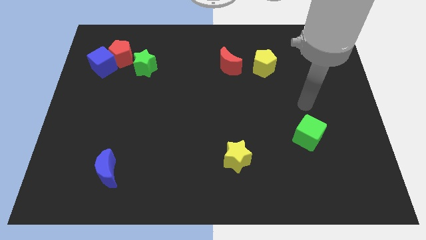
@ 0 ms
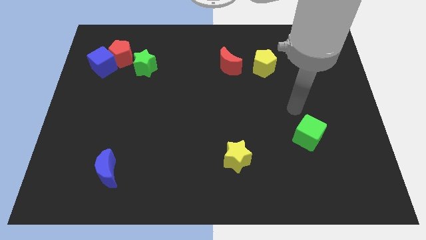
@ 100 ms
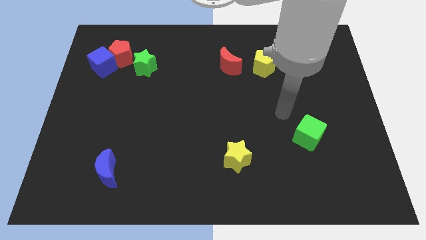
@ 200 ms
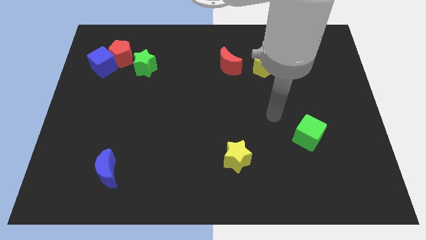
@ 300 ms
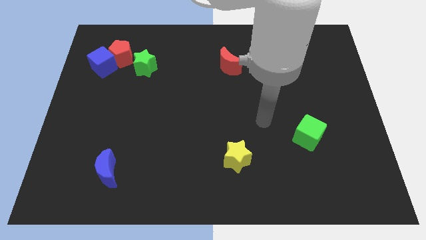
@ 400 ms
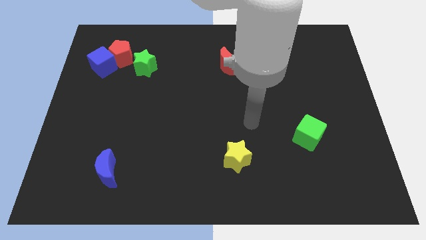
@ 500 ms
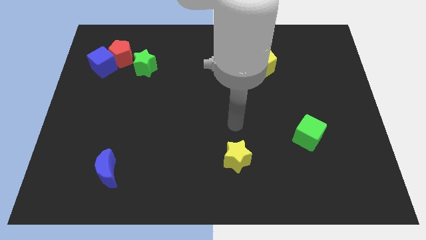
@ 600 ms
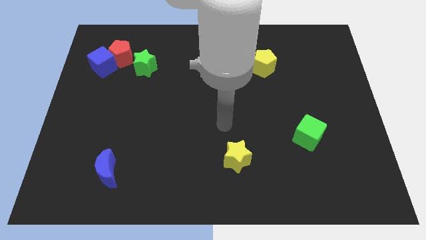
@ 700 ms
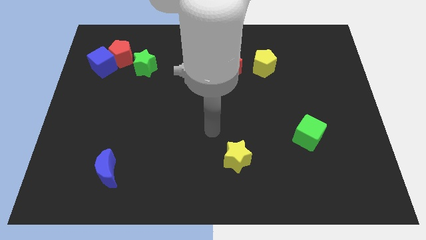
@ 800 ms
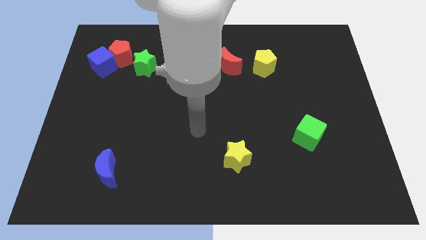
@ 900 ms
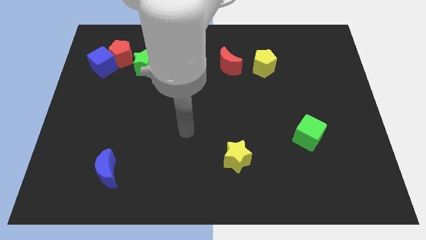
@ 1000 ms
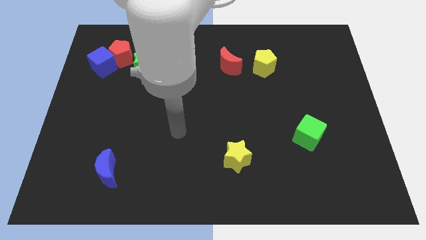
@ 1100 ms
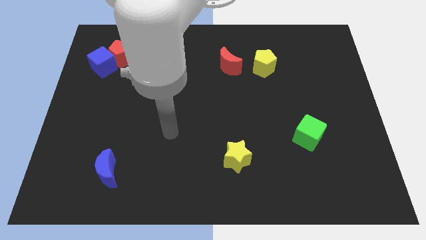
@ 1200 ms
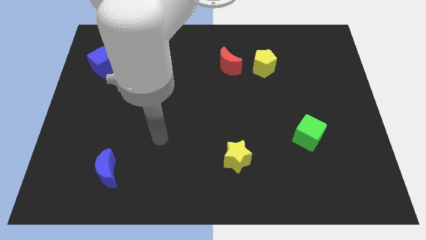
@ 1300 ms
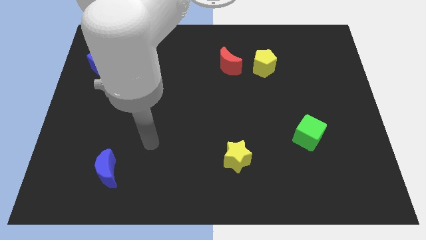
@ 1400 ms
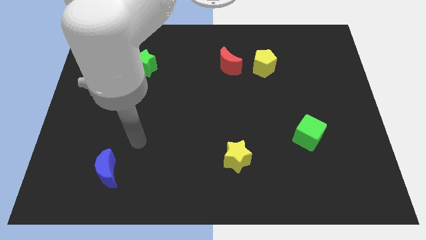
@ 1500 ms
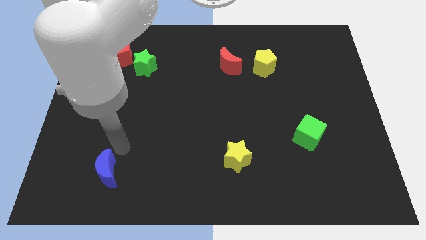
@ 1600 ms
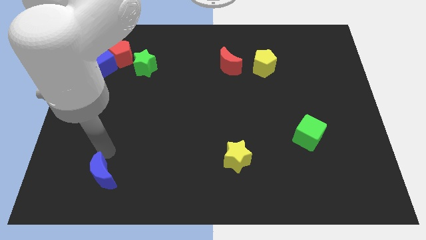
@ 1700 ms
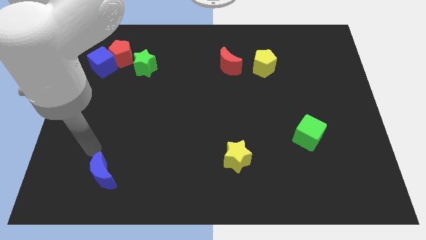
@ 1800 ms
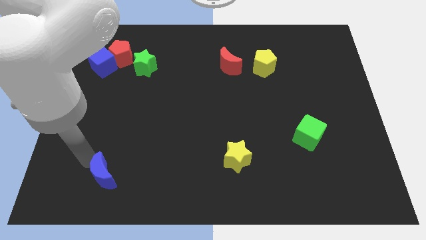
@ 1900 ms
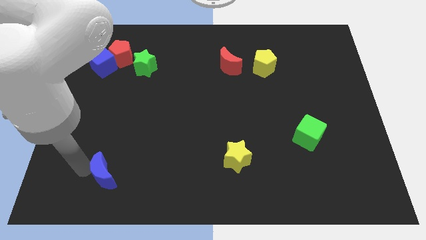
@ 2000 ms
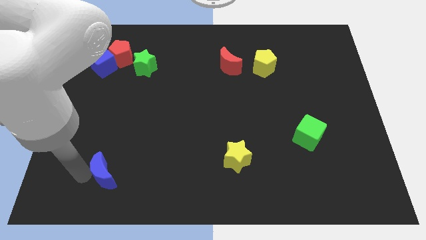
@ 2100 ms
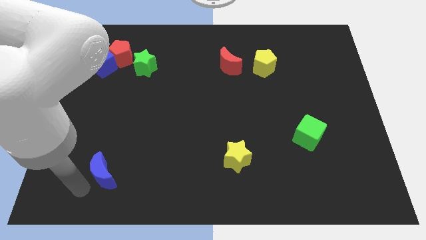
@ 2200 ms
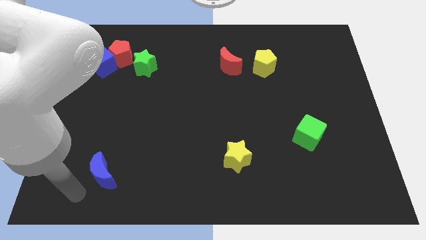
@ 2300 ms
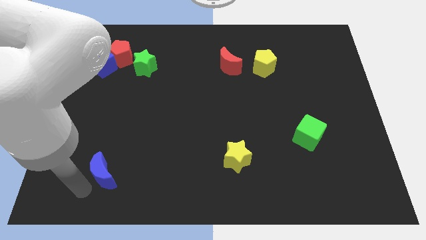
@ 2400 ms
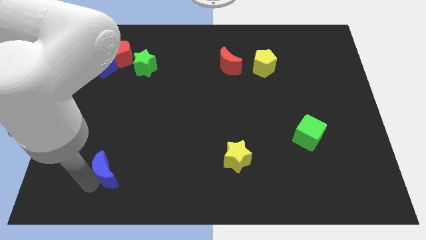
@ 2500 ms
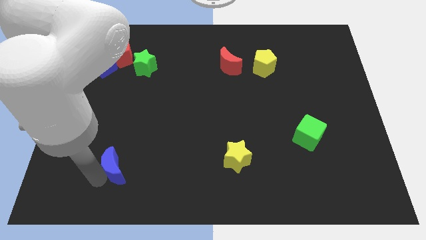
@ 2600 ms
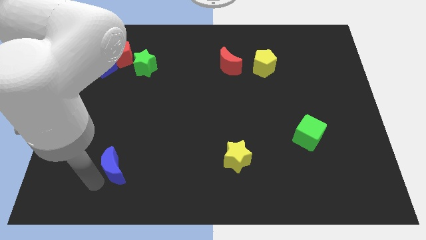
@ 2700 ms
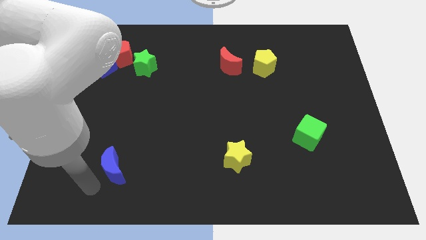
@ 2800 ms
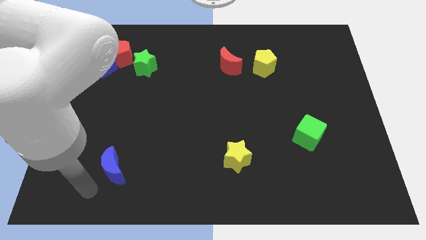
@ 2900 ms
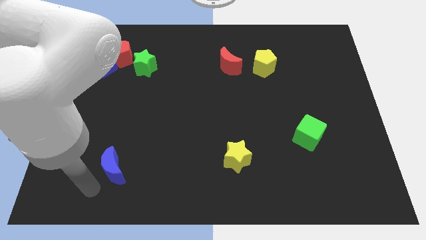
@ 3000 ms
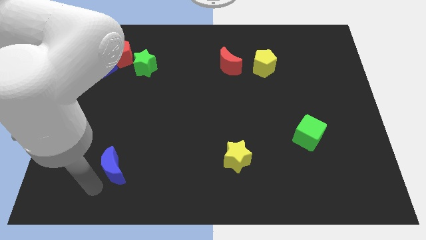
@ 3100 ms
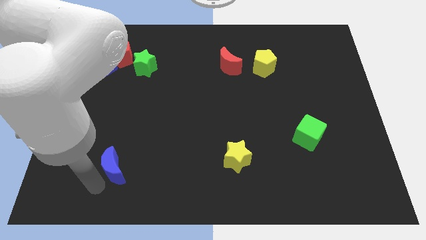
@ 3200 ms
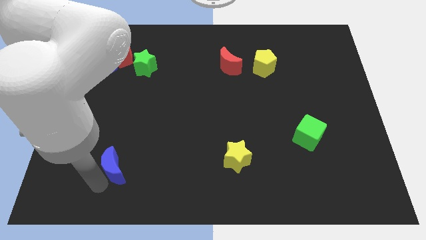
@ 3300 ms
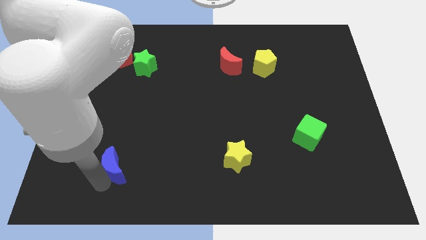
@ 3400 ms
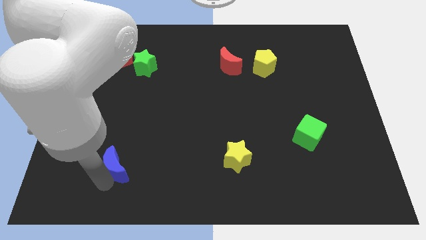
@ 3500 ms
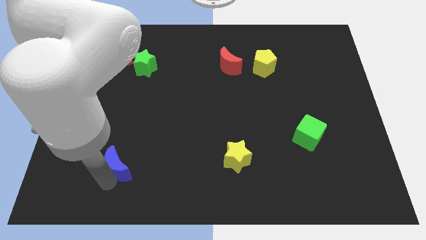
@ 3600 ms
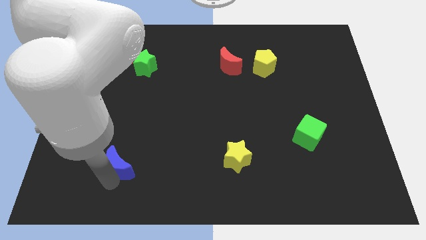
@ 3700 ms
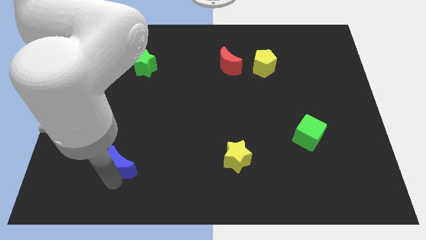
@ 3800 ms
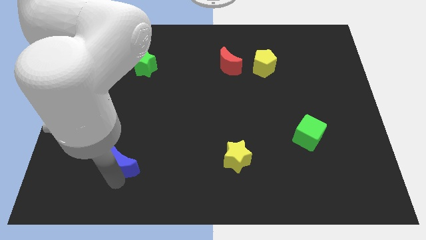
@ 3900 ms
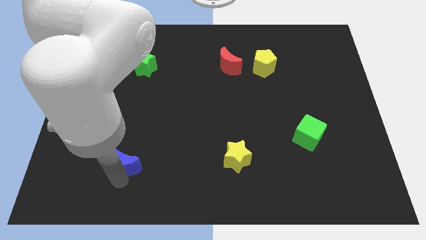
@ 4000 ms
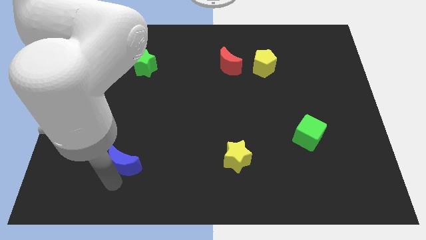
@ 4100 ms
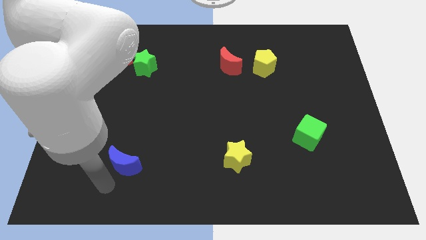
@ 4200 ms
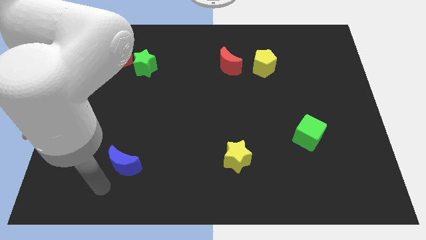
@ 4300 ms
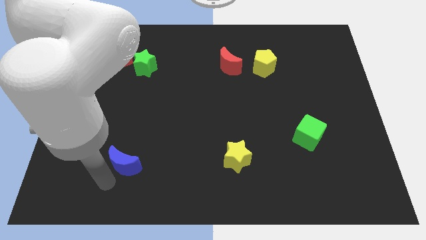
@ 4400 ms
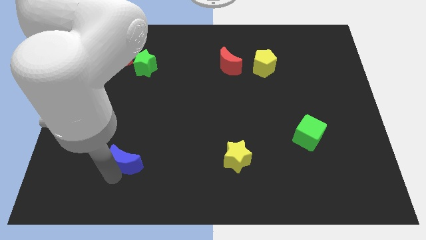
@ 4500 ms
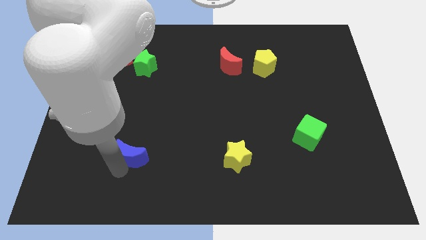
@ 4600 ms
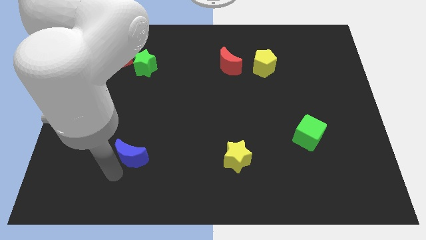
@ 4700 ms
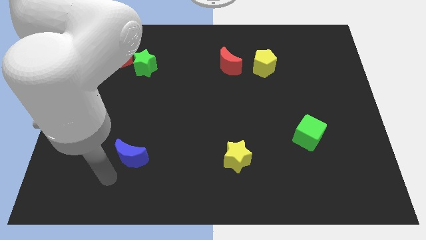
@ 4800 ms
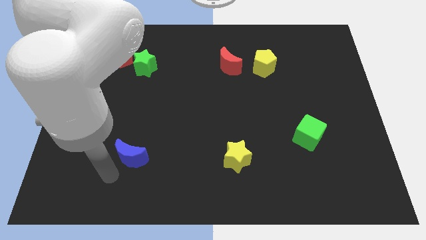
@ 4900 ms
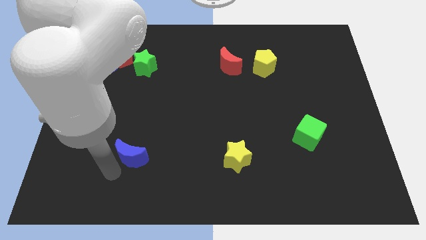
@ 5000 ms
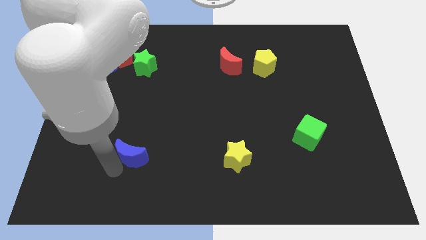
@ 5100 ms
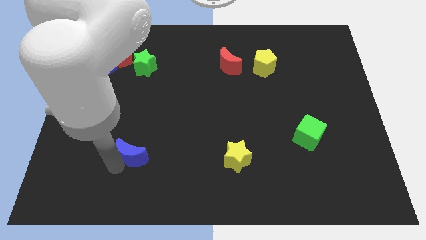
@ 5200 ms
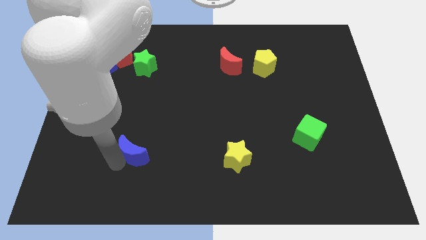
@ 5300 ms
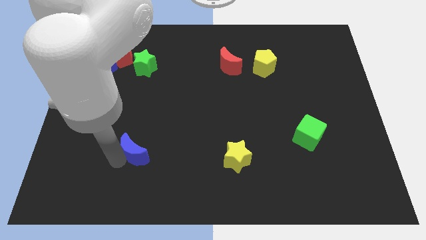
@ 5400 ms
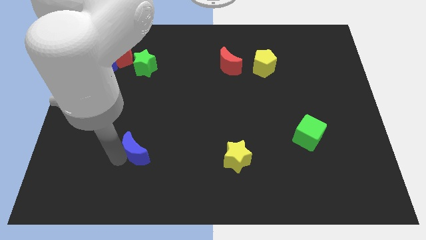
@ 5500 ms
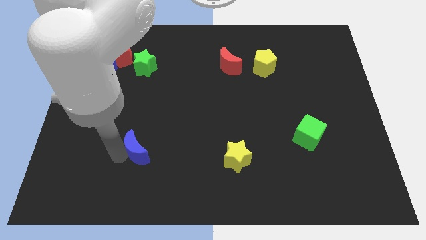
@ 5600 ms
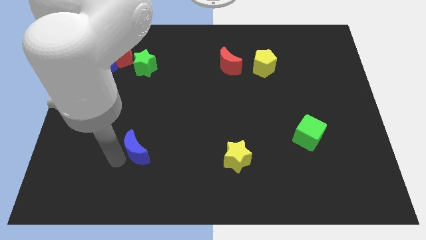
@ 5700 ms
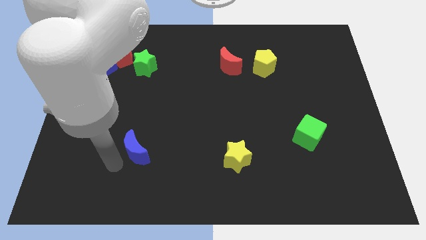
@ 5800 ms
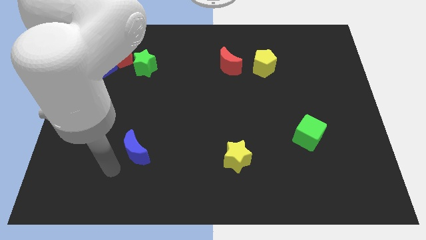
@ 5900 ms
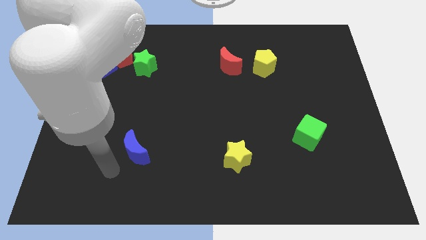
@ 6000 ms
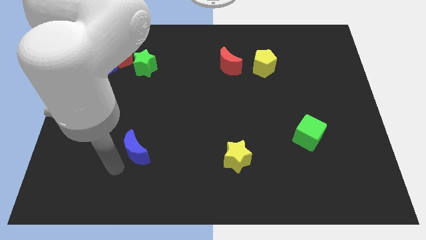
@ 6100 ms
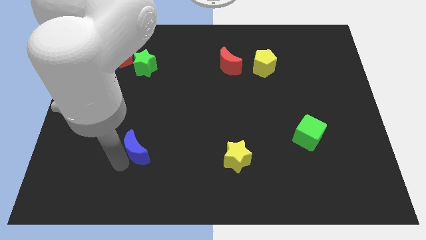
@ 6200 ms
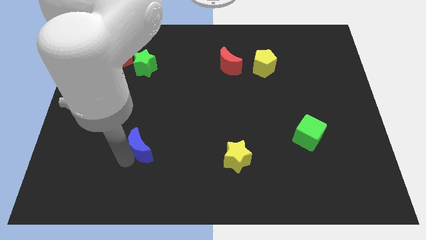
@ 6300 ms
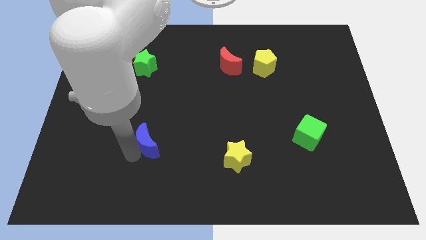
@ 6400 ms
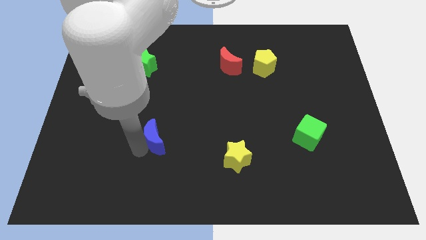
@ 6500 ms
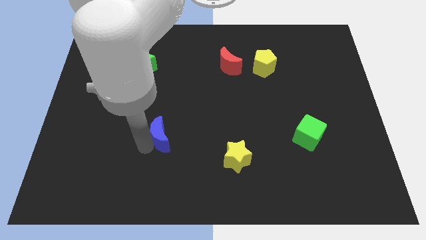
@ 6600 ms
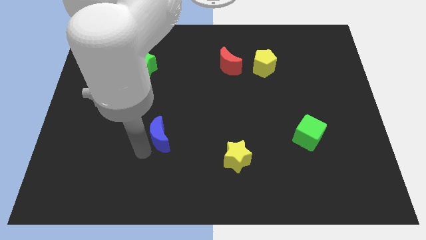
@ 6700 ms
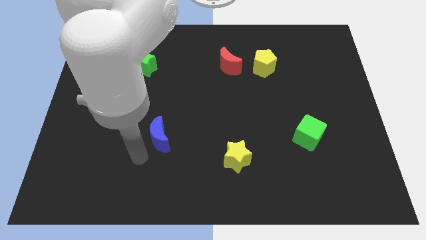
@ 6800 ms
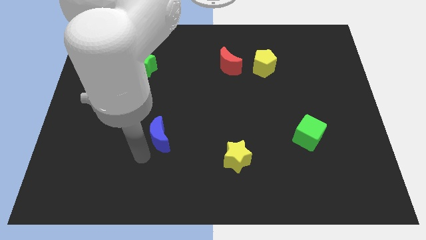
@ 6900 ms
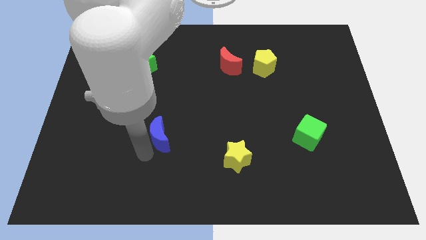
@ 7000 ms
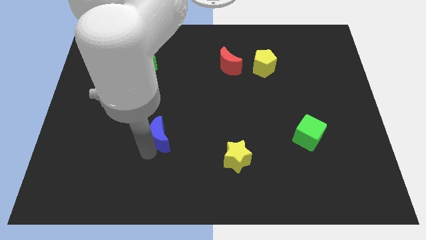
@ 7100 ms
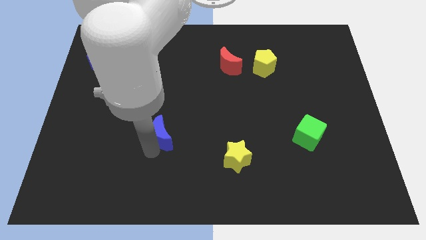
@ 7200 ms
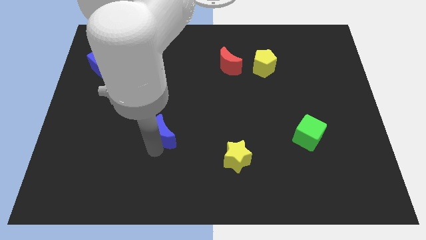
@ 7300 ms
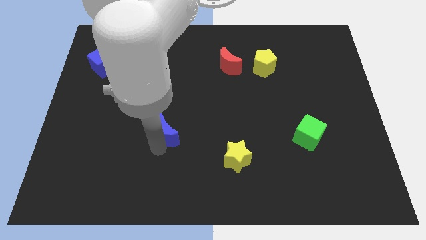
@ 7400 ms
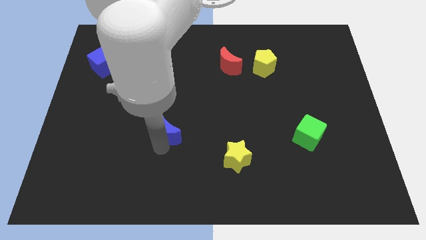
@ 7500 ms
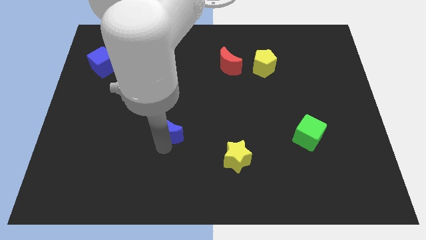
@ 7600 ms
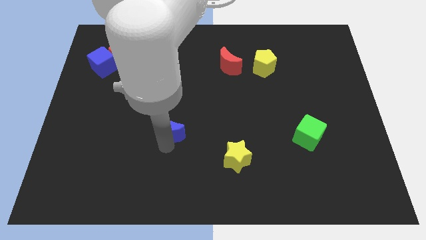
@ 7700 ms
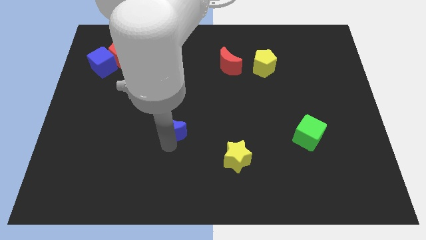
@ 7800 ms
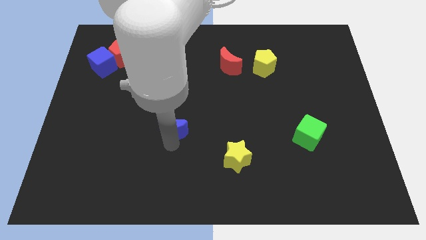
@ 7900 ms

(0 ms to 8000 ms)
move the blue moon to the center of the board
